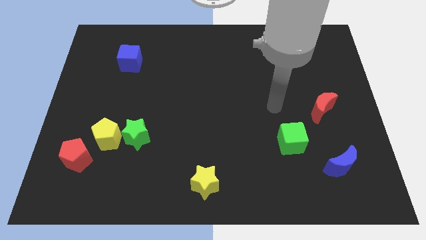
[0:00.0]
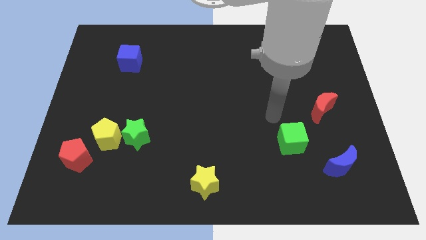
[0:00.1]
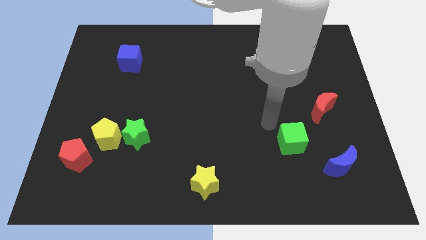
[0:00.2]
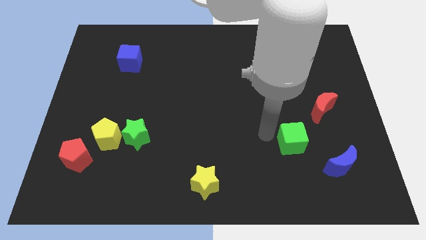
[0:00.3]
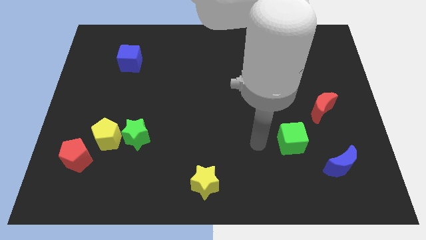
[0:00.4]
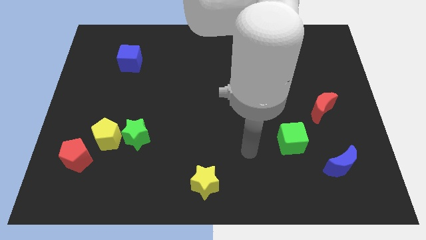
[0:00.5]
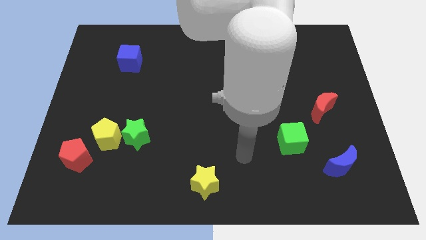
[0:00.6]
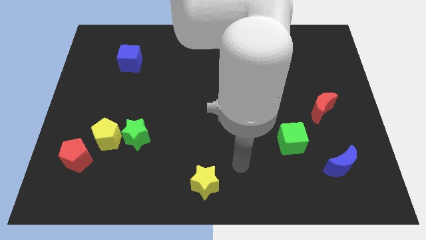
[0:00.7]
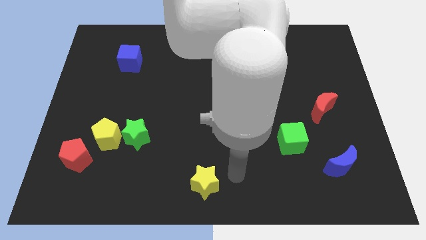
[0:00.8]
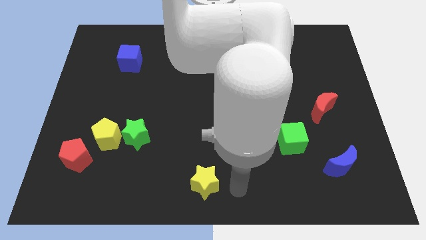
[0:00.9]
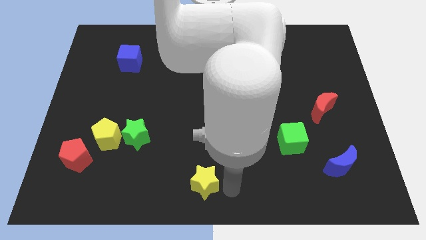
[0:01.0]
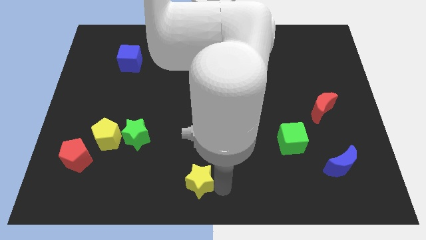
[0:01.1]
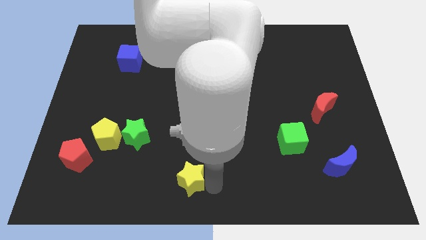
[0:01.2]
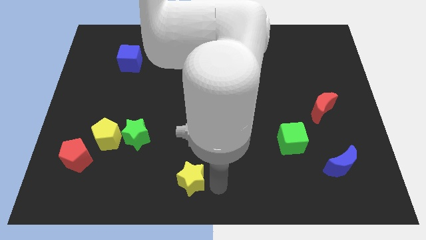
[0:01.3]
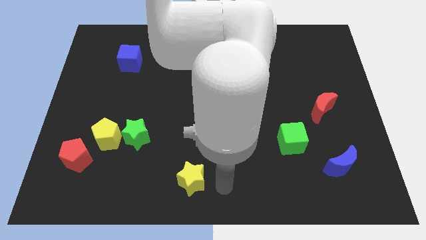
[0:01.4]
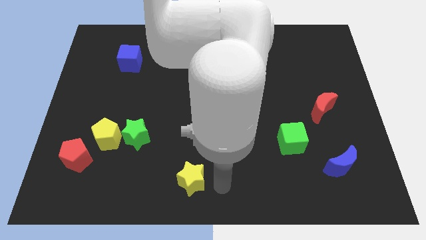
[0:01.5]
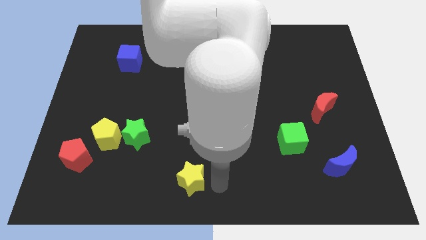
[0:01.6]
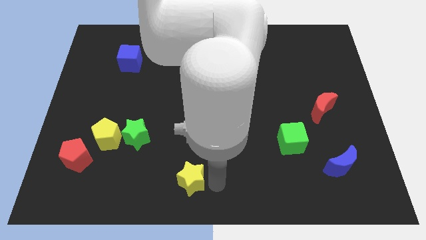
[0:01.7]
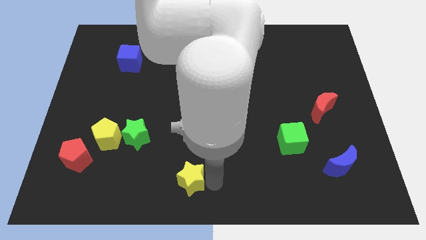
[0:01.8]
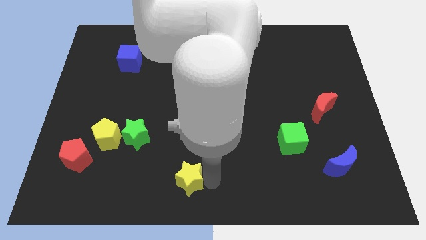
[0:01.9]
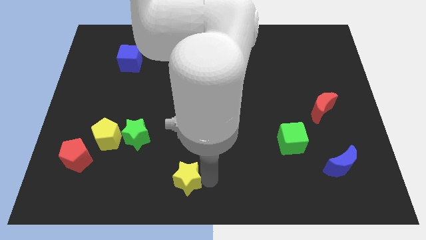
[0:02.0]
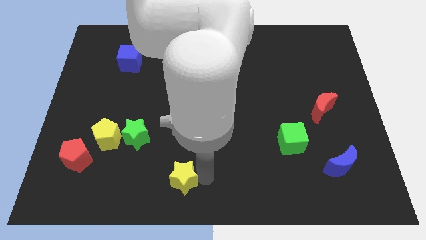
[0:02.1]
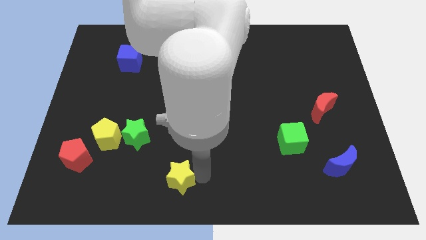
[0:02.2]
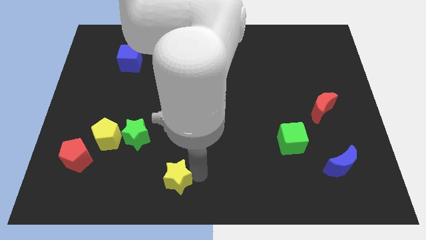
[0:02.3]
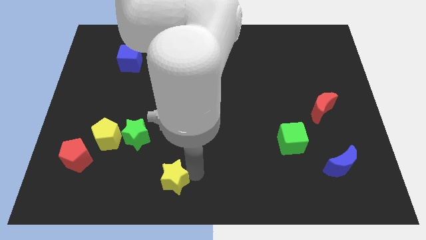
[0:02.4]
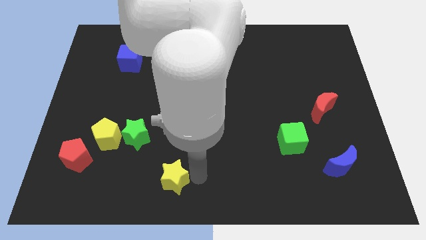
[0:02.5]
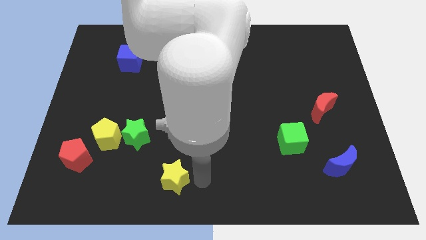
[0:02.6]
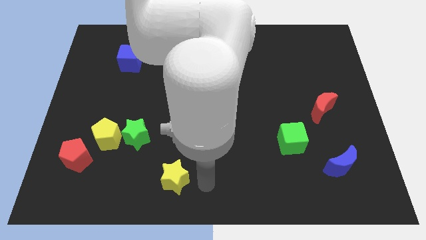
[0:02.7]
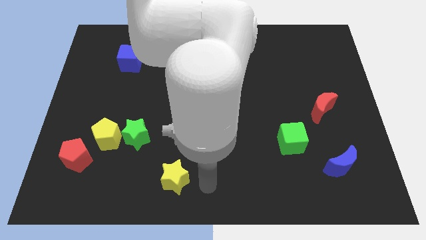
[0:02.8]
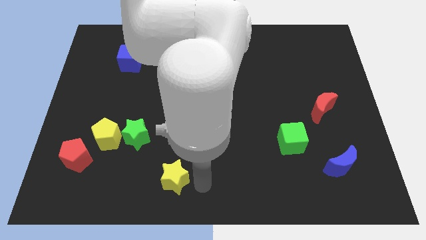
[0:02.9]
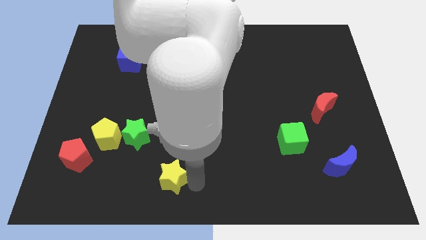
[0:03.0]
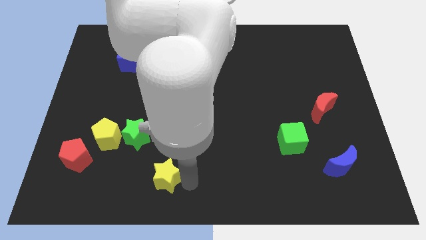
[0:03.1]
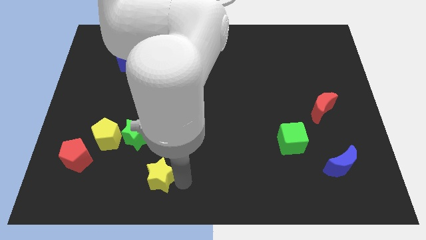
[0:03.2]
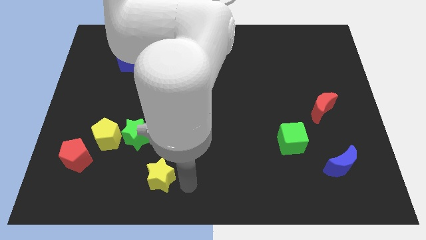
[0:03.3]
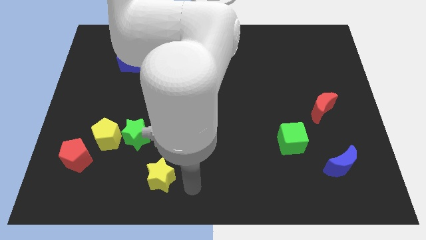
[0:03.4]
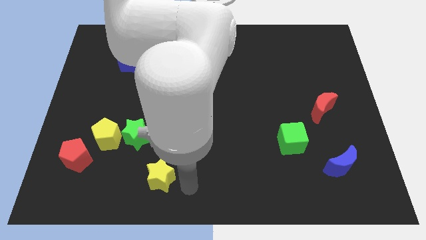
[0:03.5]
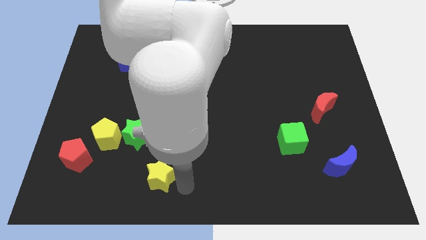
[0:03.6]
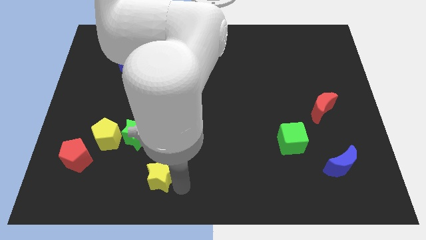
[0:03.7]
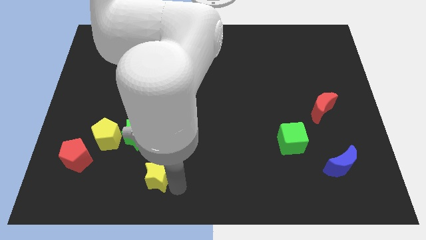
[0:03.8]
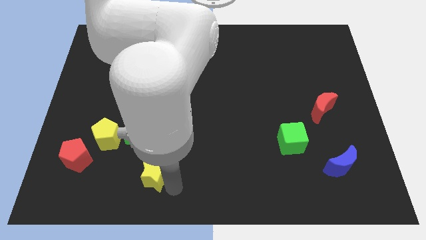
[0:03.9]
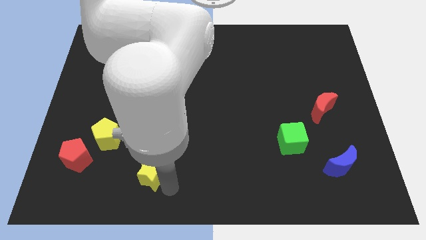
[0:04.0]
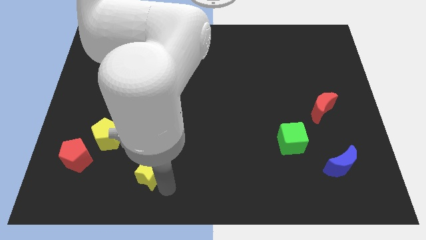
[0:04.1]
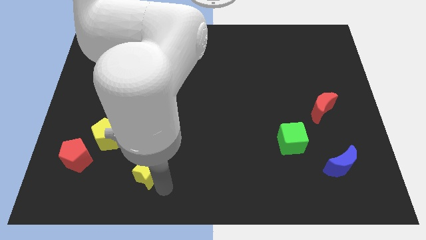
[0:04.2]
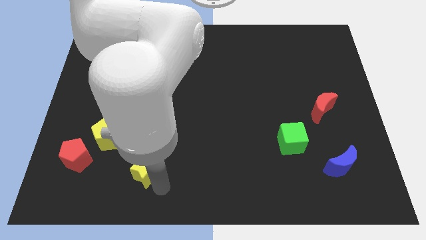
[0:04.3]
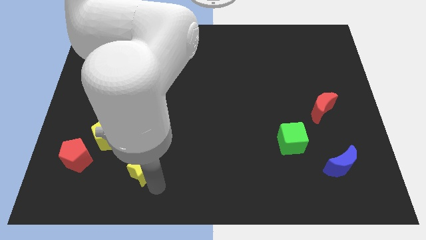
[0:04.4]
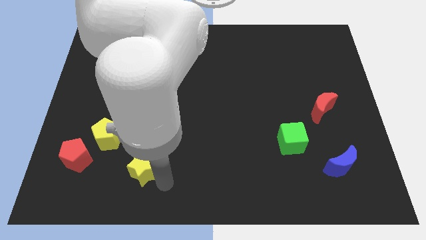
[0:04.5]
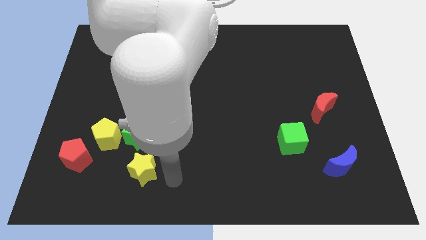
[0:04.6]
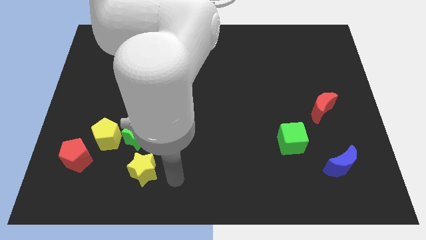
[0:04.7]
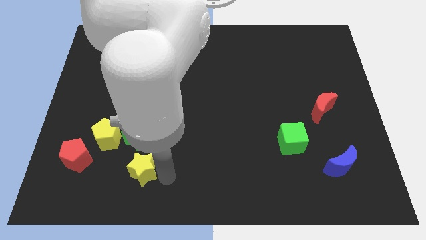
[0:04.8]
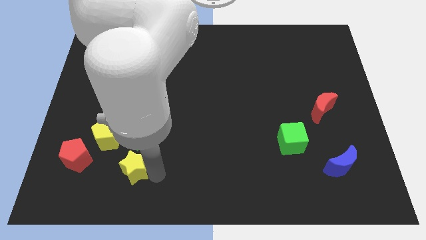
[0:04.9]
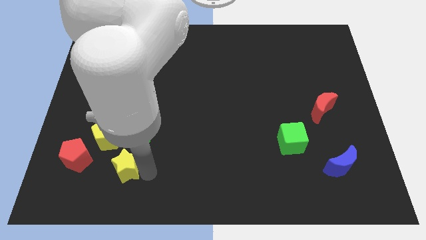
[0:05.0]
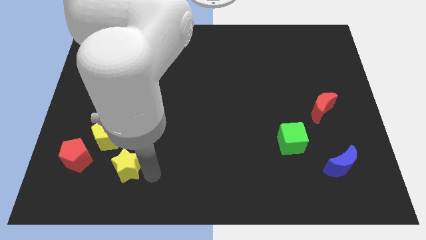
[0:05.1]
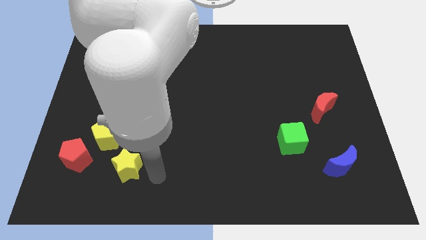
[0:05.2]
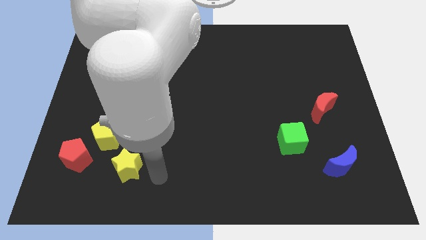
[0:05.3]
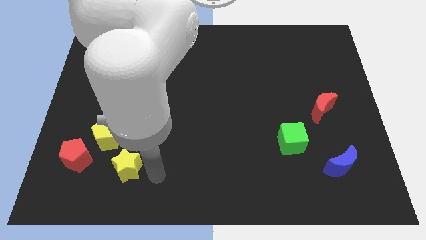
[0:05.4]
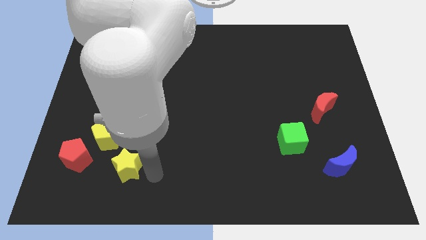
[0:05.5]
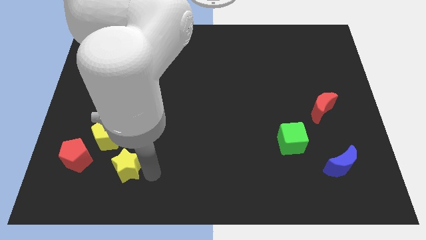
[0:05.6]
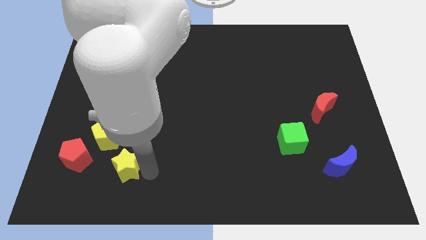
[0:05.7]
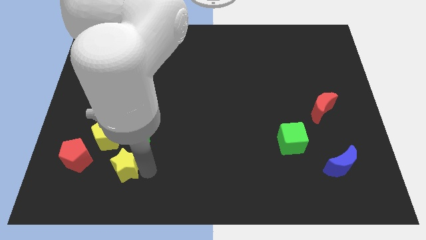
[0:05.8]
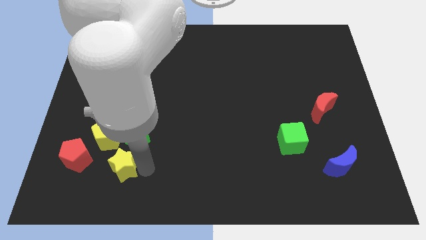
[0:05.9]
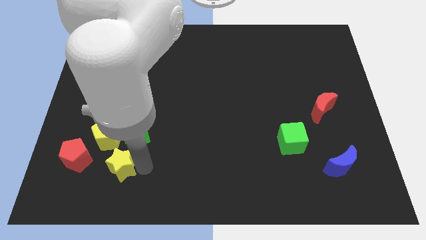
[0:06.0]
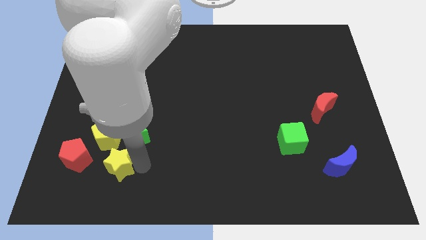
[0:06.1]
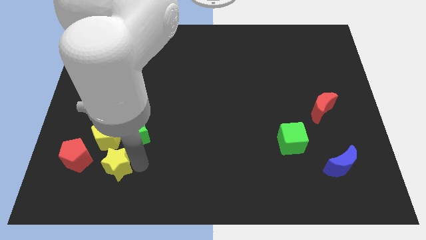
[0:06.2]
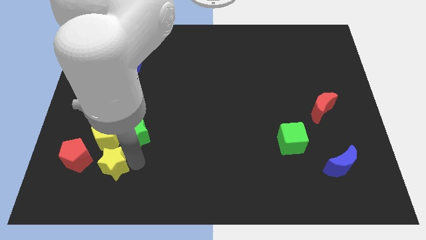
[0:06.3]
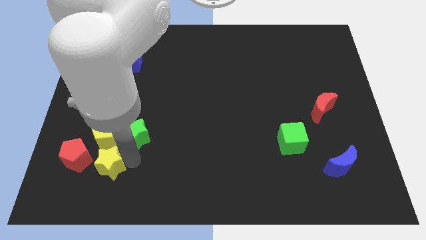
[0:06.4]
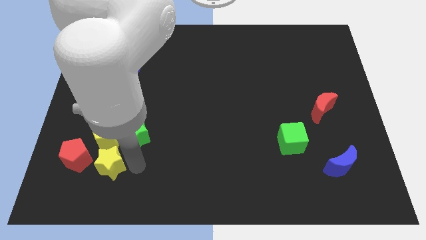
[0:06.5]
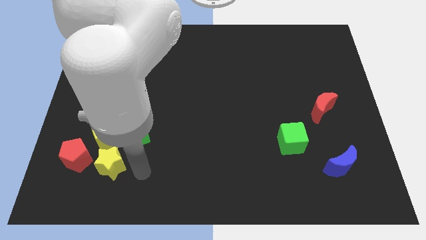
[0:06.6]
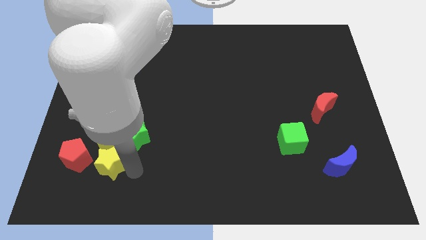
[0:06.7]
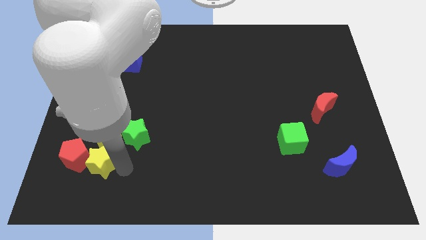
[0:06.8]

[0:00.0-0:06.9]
push the yellow star to the red pentagon

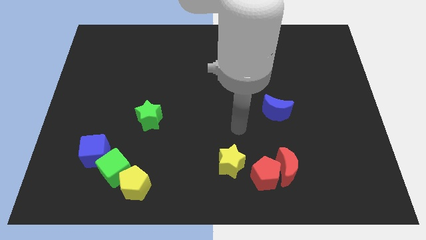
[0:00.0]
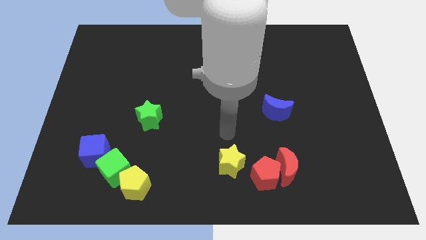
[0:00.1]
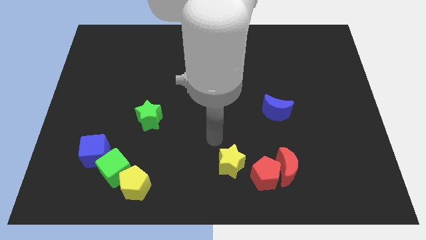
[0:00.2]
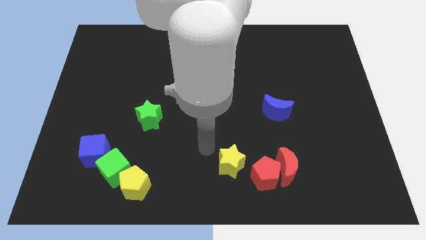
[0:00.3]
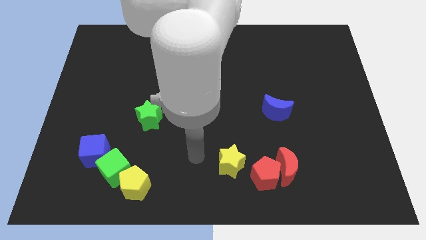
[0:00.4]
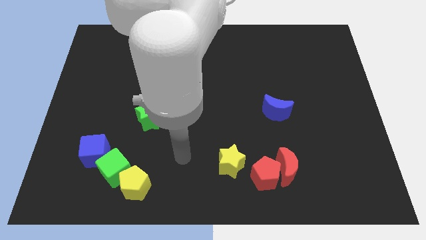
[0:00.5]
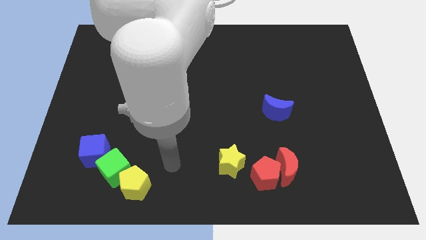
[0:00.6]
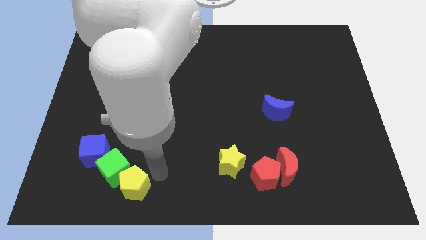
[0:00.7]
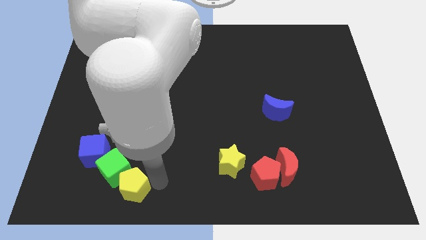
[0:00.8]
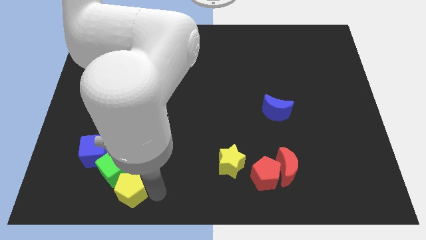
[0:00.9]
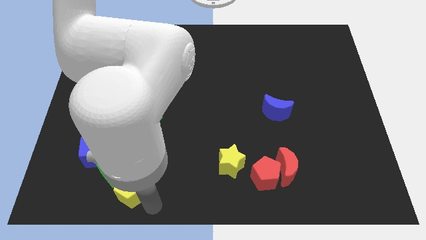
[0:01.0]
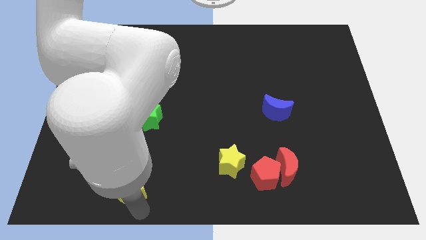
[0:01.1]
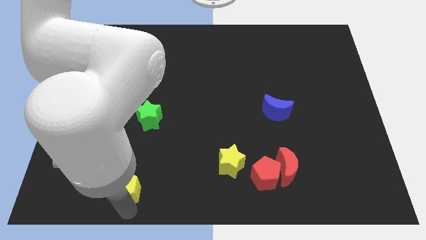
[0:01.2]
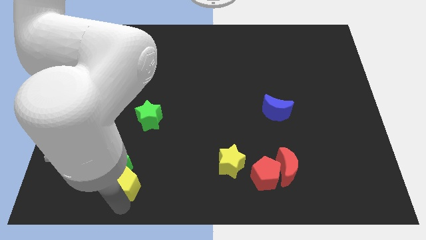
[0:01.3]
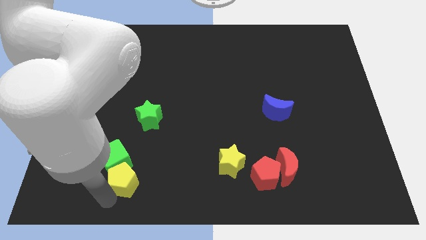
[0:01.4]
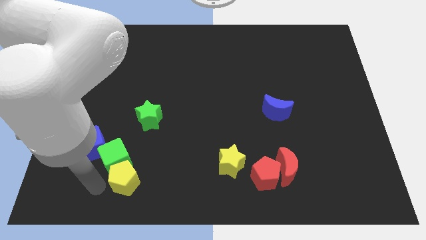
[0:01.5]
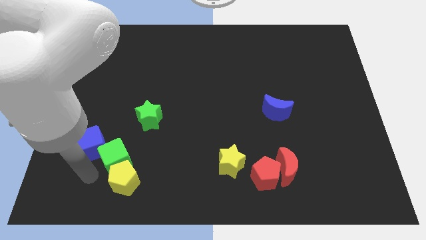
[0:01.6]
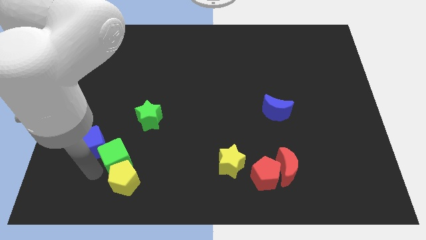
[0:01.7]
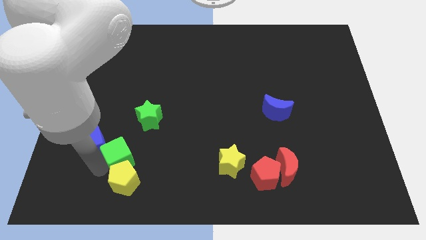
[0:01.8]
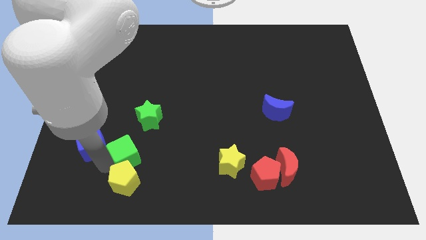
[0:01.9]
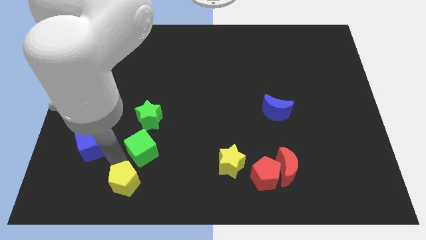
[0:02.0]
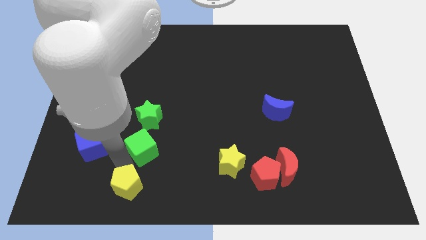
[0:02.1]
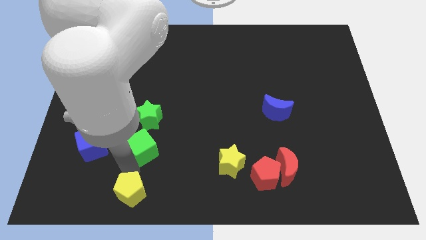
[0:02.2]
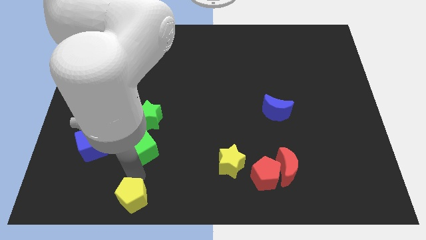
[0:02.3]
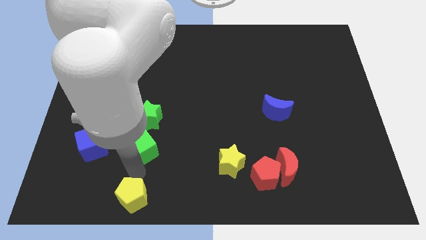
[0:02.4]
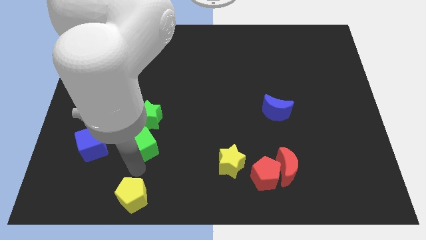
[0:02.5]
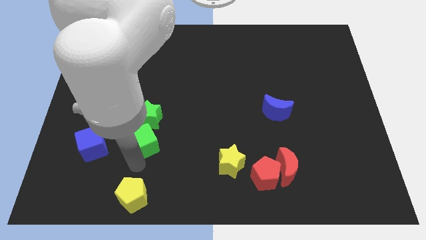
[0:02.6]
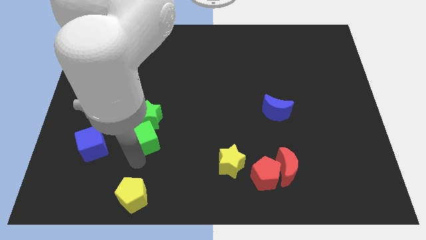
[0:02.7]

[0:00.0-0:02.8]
push the green cube close to the green star
